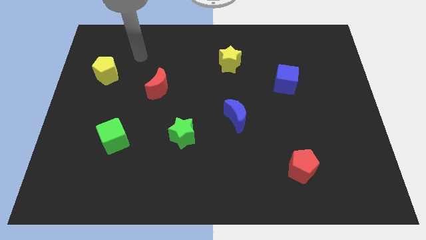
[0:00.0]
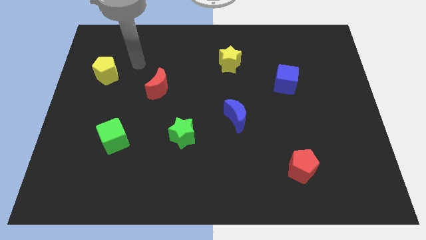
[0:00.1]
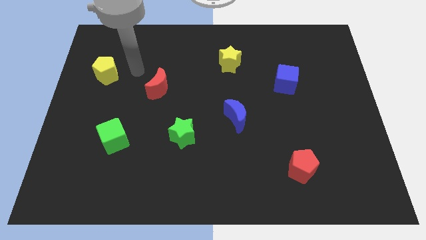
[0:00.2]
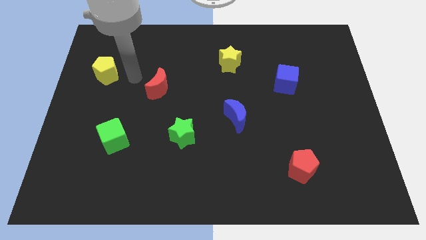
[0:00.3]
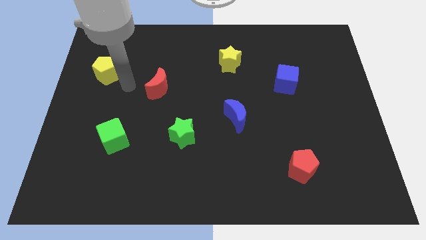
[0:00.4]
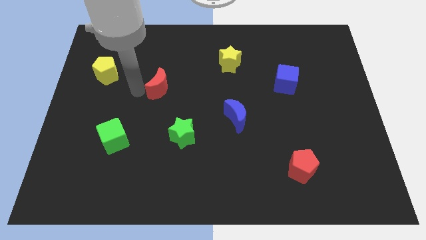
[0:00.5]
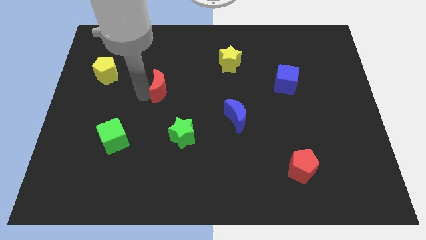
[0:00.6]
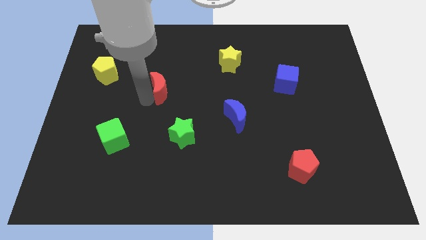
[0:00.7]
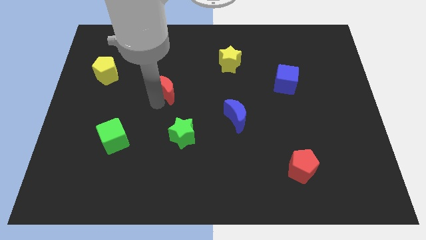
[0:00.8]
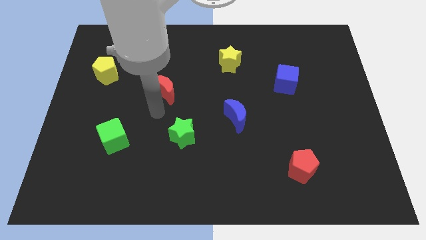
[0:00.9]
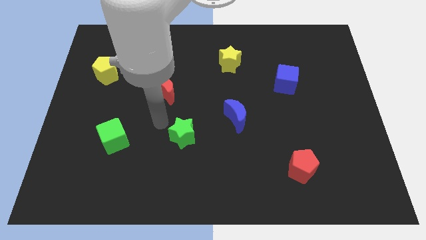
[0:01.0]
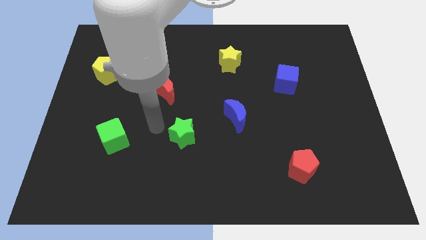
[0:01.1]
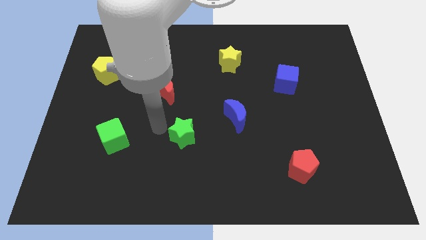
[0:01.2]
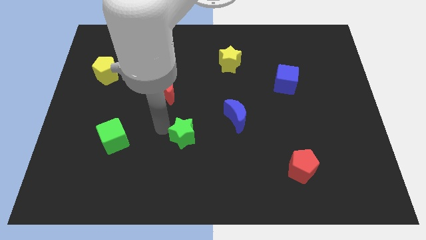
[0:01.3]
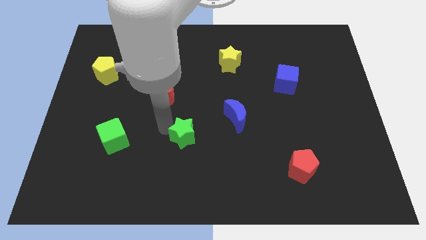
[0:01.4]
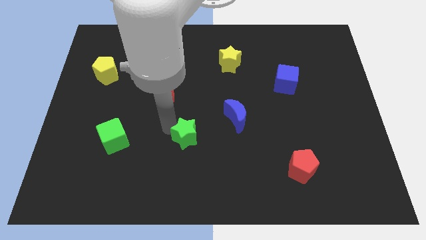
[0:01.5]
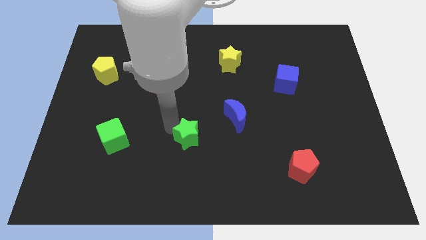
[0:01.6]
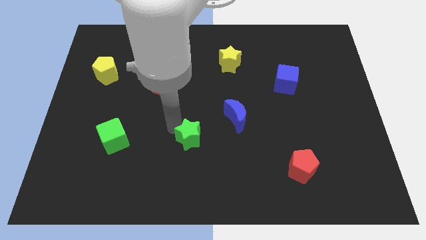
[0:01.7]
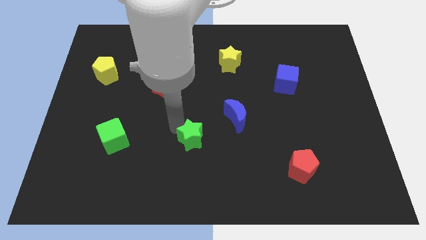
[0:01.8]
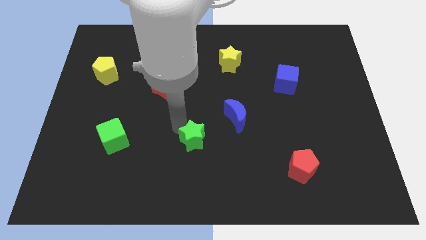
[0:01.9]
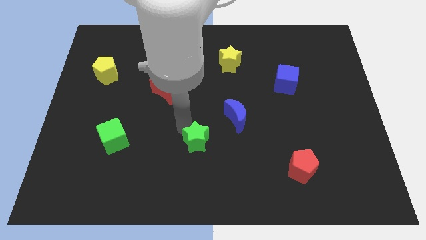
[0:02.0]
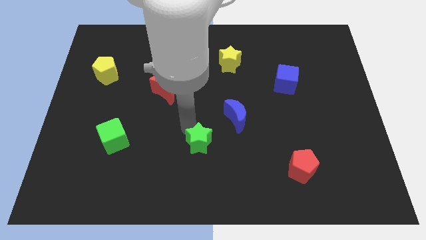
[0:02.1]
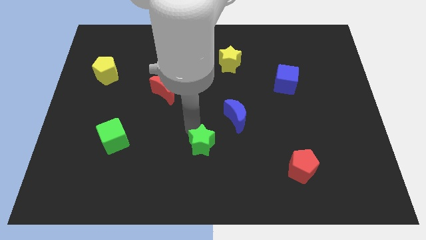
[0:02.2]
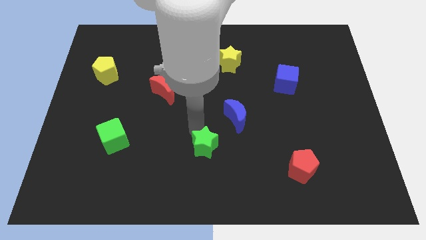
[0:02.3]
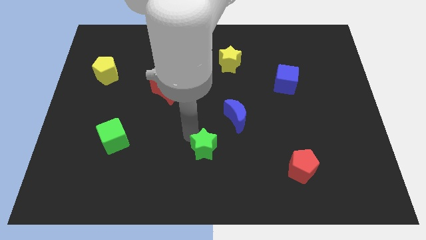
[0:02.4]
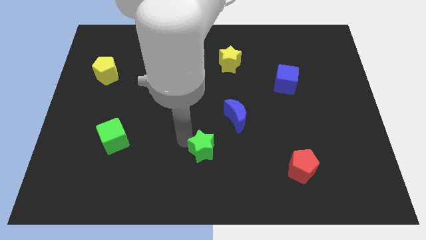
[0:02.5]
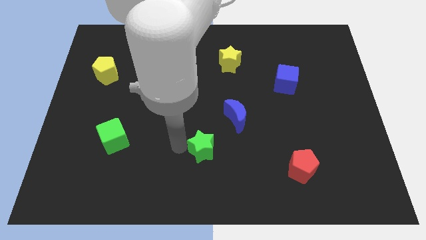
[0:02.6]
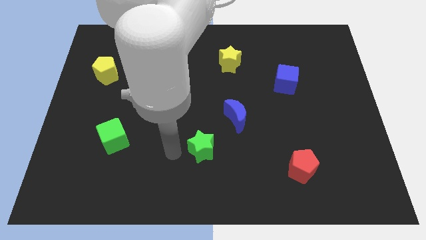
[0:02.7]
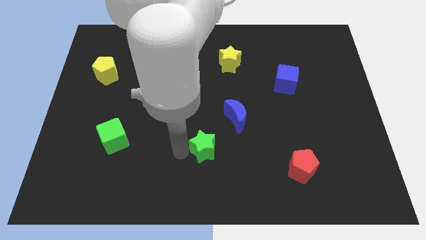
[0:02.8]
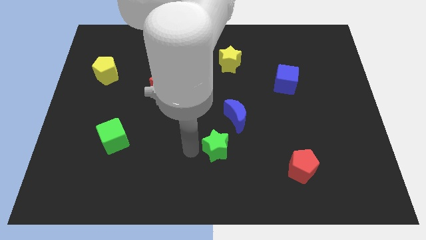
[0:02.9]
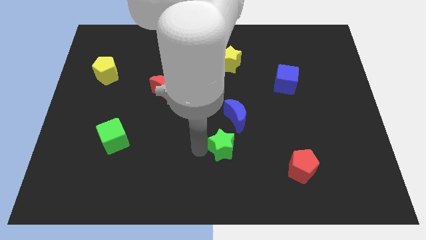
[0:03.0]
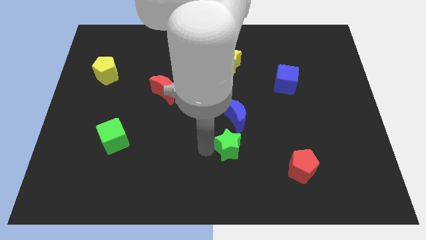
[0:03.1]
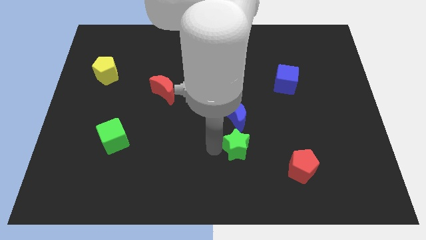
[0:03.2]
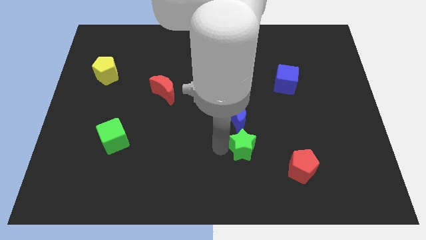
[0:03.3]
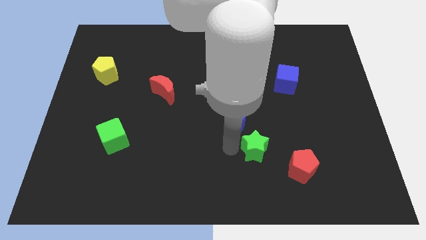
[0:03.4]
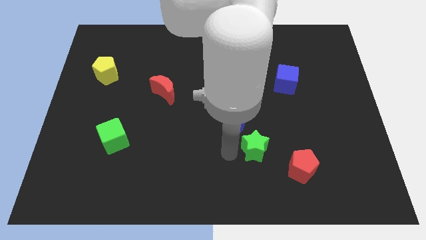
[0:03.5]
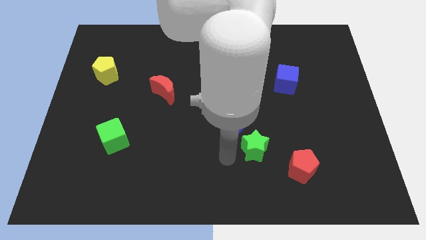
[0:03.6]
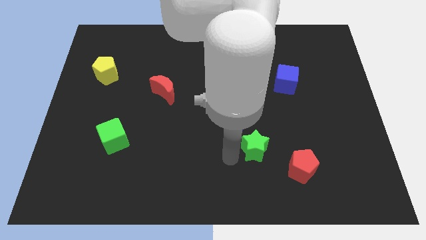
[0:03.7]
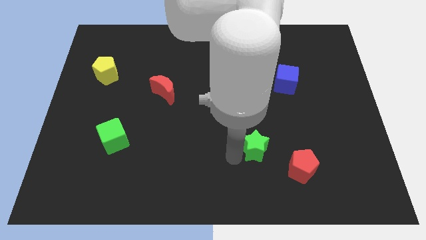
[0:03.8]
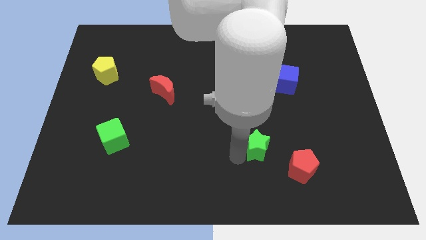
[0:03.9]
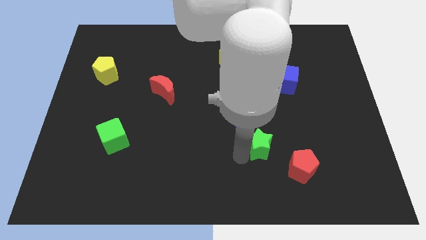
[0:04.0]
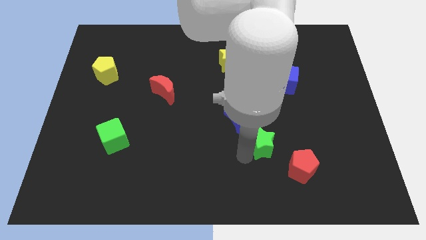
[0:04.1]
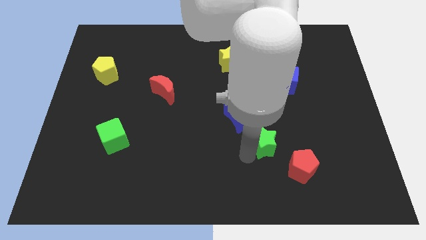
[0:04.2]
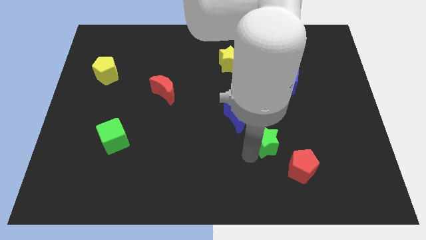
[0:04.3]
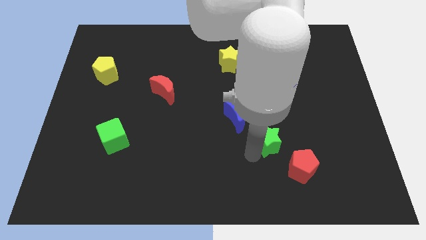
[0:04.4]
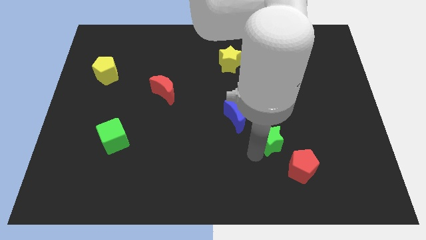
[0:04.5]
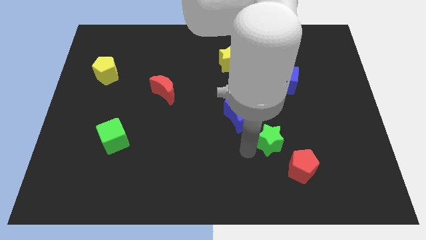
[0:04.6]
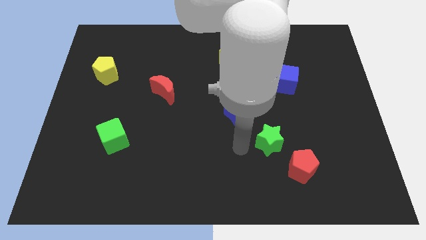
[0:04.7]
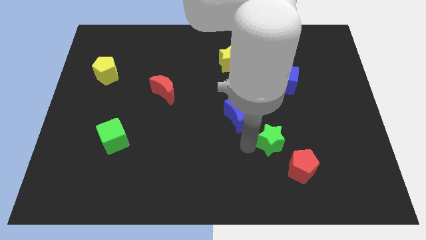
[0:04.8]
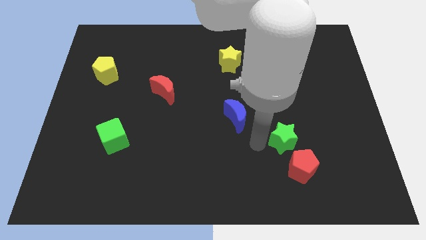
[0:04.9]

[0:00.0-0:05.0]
move the green star to the right

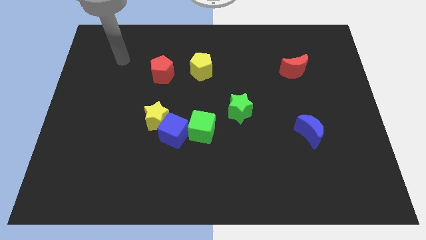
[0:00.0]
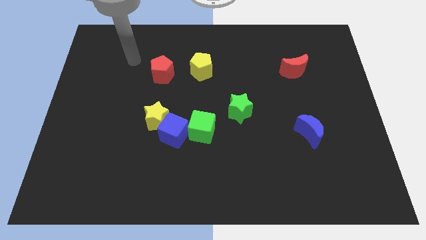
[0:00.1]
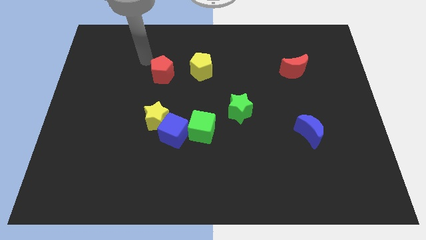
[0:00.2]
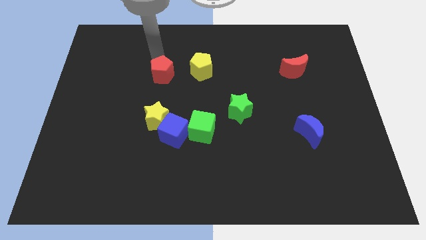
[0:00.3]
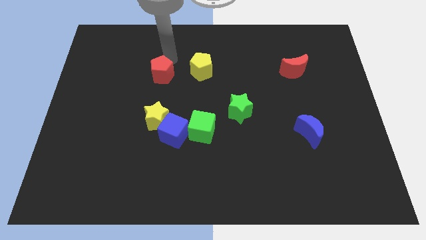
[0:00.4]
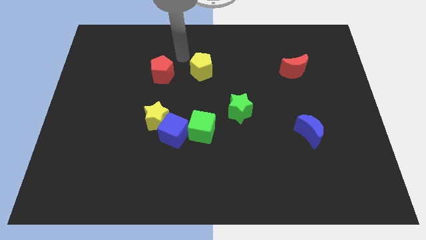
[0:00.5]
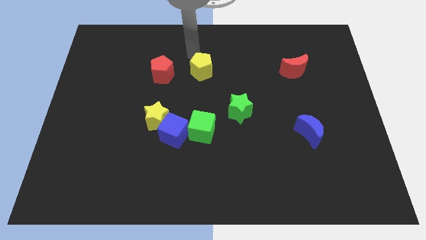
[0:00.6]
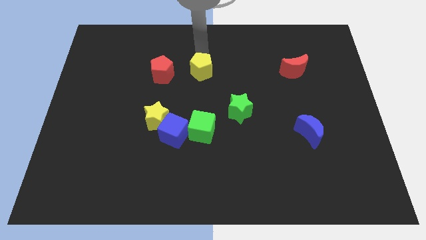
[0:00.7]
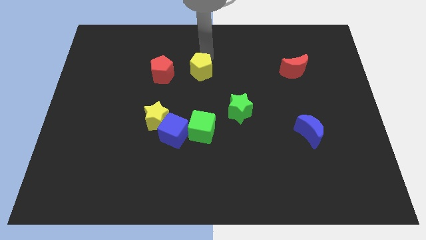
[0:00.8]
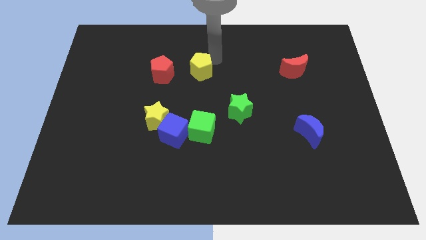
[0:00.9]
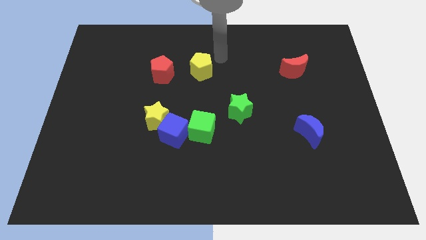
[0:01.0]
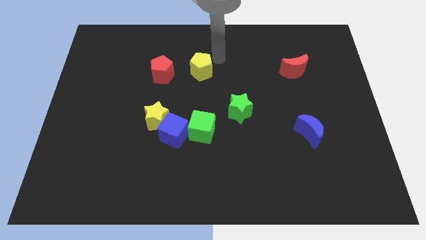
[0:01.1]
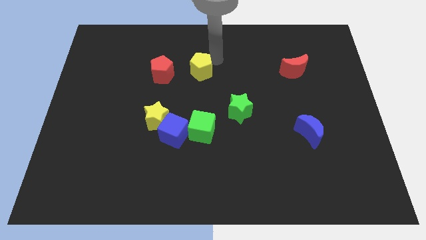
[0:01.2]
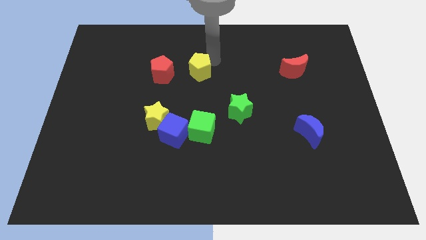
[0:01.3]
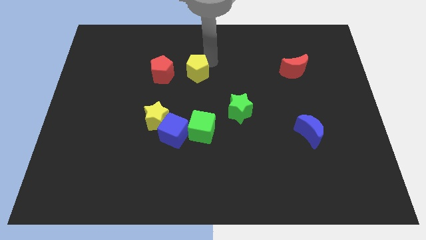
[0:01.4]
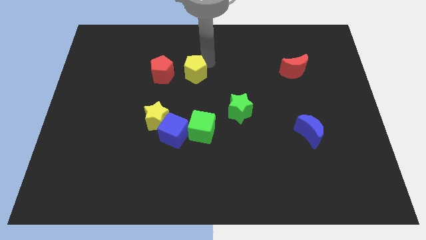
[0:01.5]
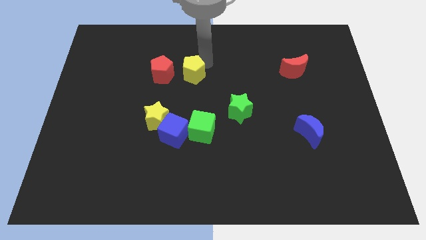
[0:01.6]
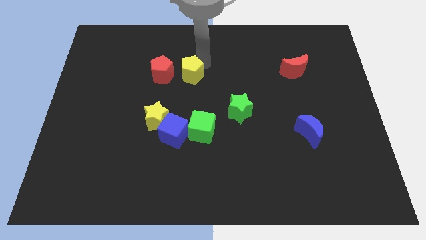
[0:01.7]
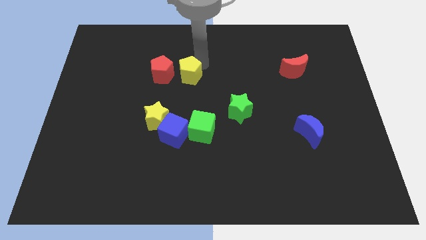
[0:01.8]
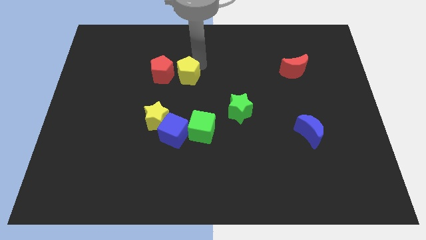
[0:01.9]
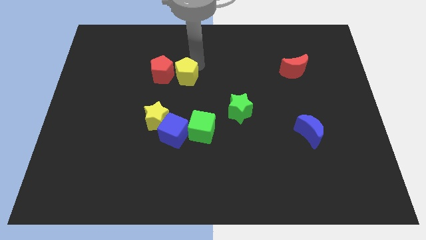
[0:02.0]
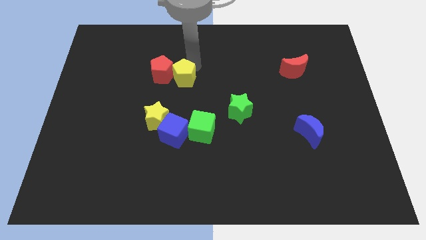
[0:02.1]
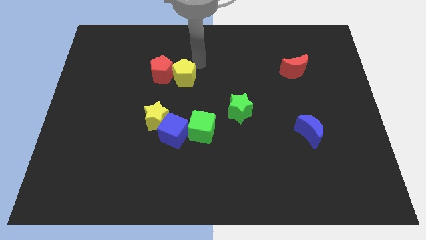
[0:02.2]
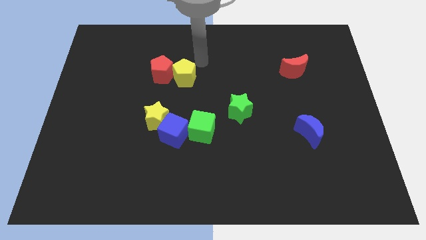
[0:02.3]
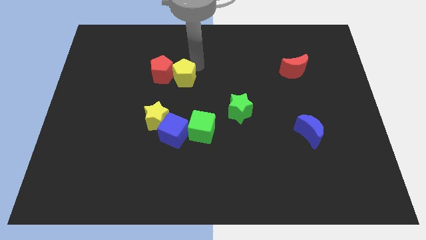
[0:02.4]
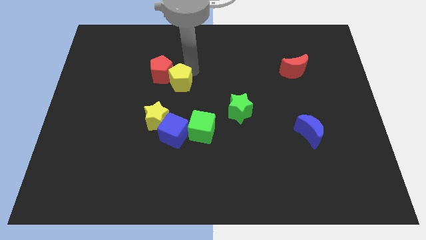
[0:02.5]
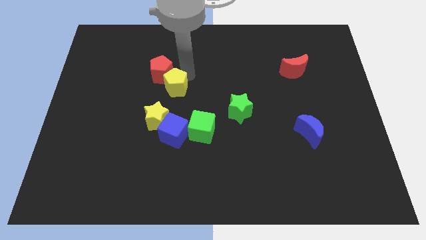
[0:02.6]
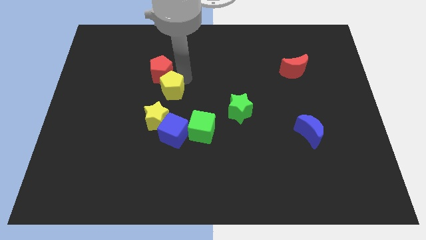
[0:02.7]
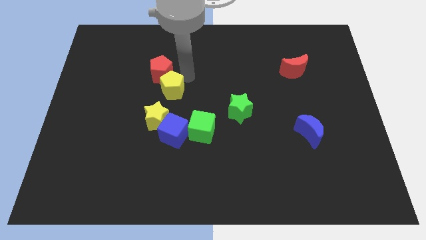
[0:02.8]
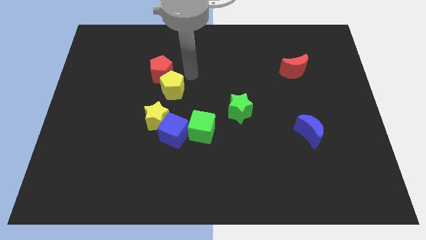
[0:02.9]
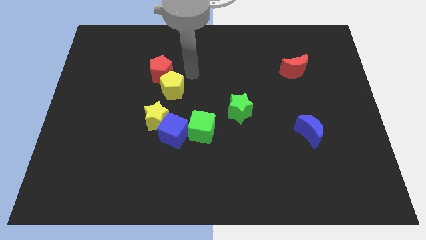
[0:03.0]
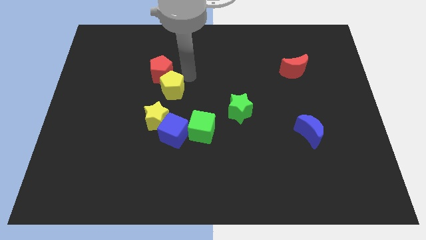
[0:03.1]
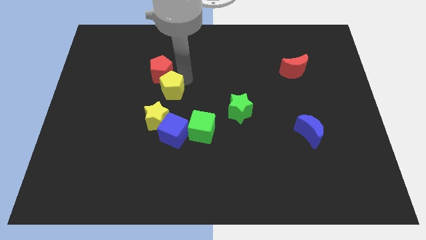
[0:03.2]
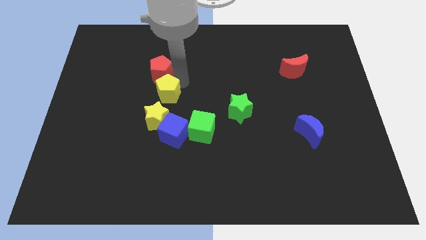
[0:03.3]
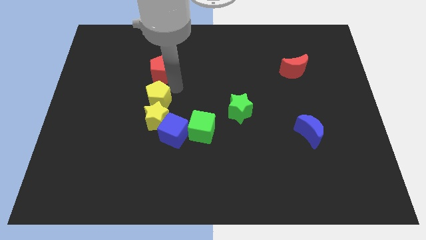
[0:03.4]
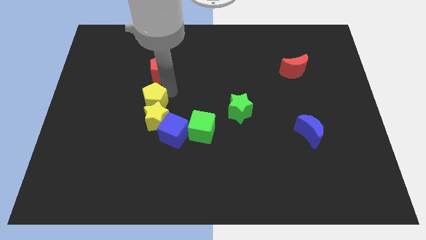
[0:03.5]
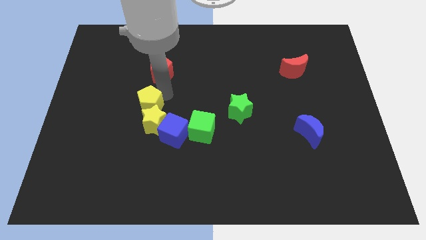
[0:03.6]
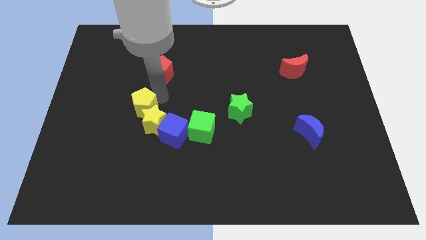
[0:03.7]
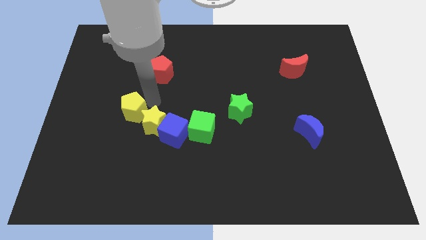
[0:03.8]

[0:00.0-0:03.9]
push the yellow pentagon down and then to the left
